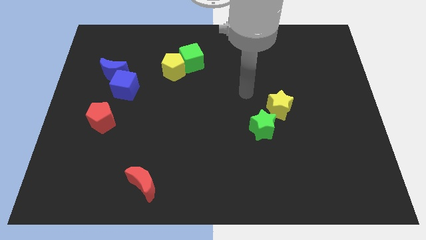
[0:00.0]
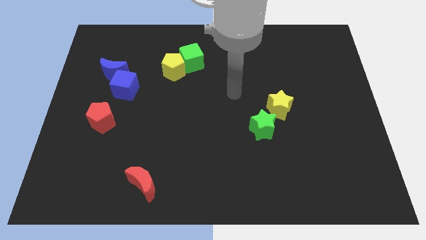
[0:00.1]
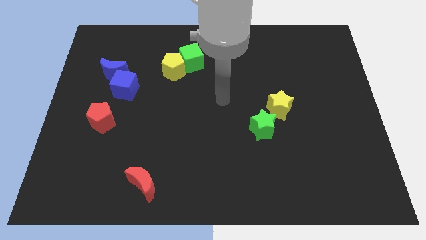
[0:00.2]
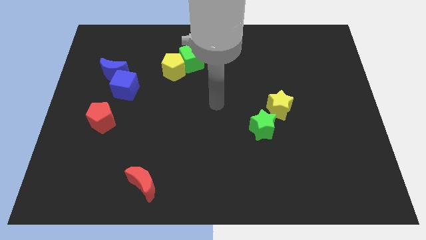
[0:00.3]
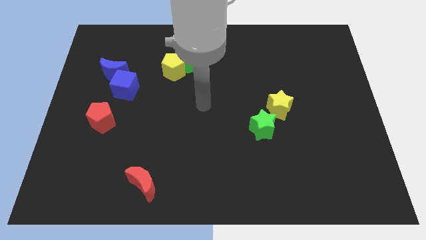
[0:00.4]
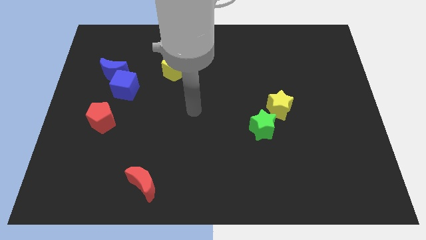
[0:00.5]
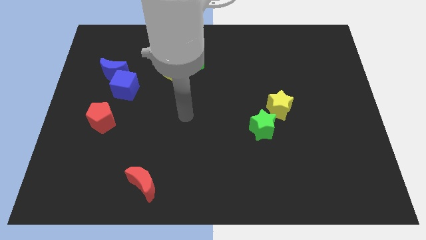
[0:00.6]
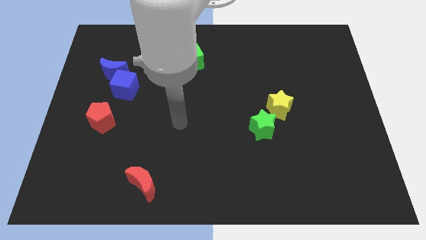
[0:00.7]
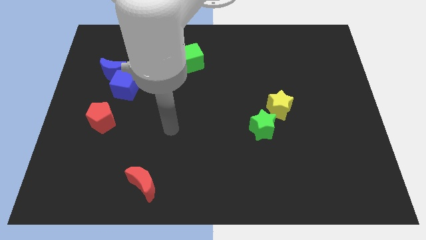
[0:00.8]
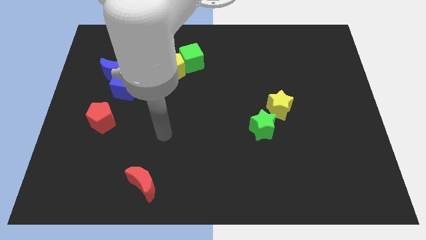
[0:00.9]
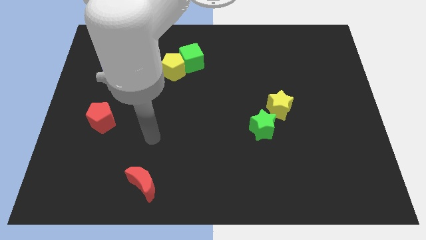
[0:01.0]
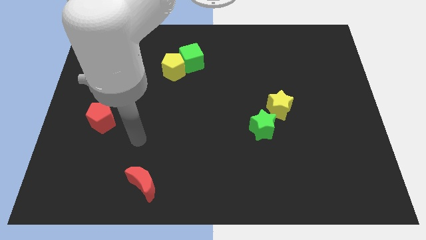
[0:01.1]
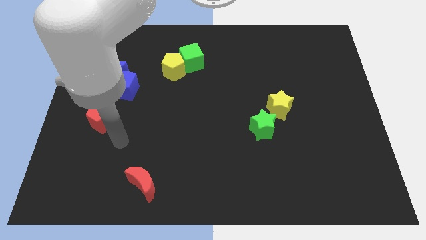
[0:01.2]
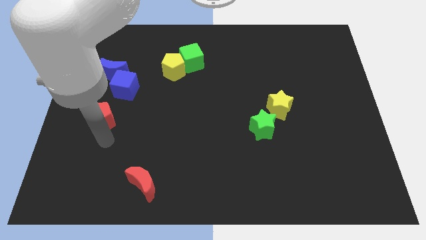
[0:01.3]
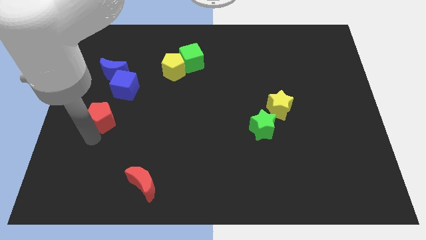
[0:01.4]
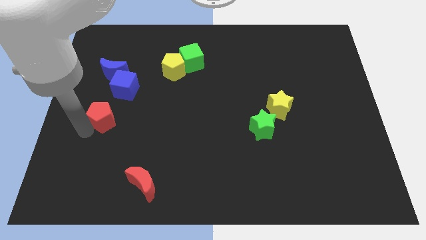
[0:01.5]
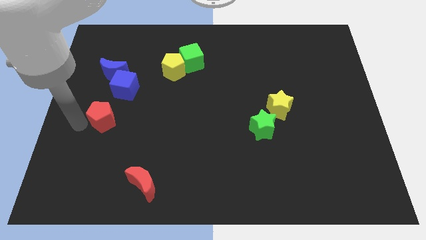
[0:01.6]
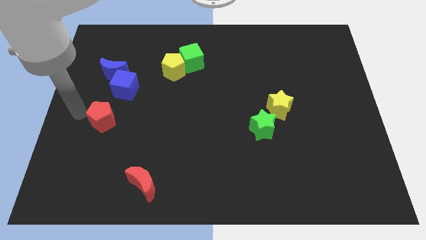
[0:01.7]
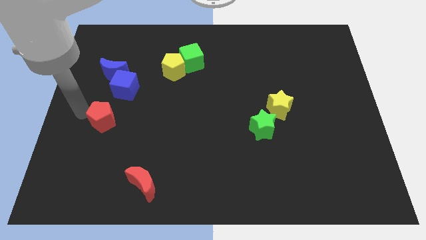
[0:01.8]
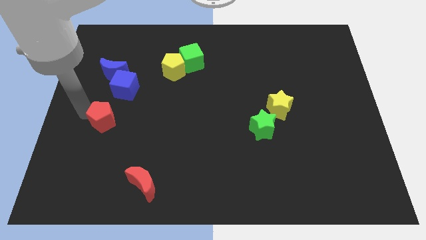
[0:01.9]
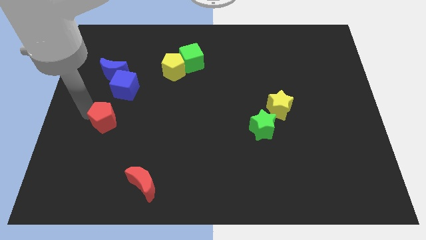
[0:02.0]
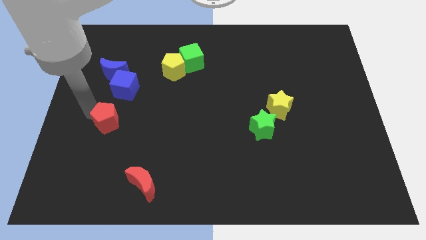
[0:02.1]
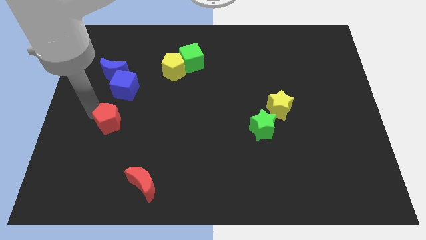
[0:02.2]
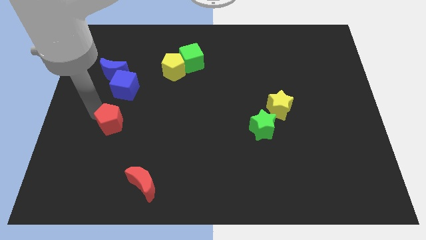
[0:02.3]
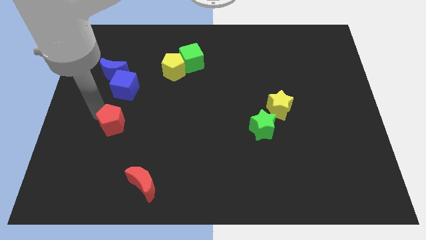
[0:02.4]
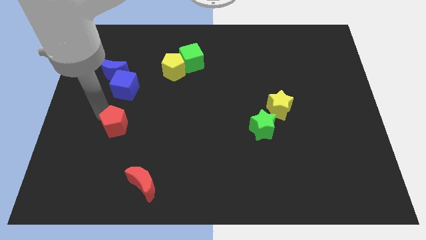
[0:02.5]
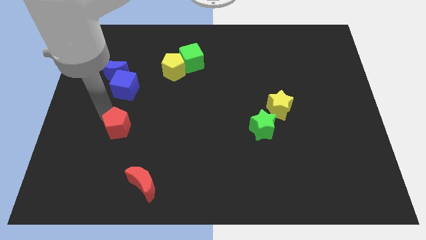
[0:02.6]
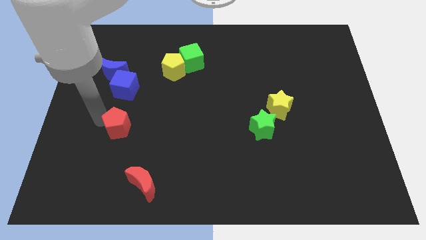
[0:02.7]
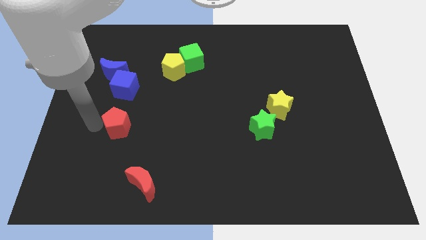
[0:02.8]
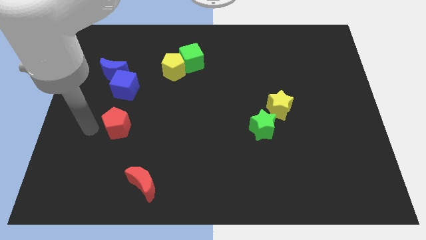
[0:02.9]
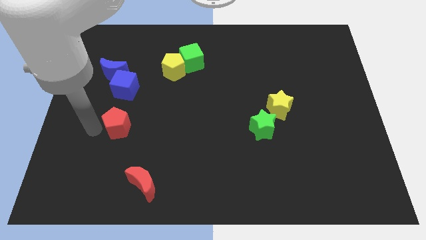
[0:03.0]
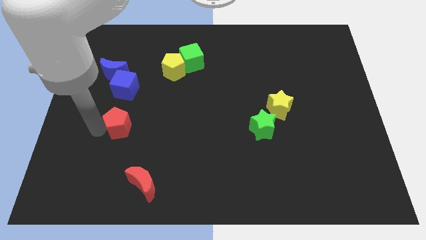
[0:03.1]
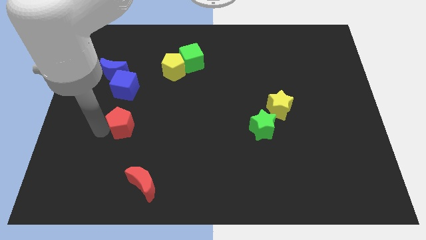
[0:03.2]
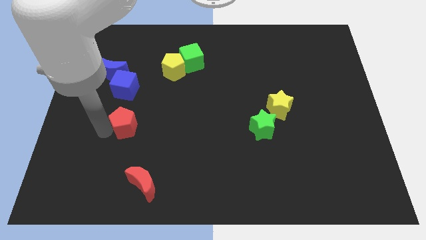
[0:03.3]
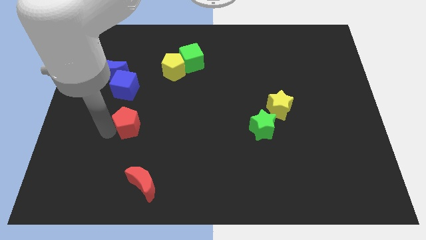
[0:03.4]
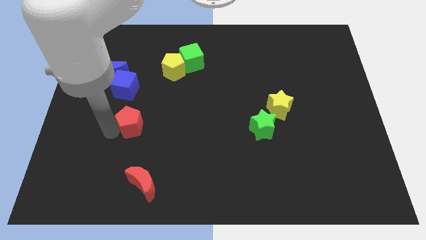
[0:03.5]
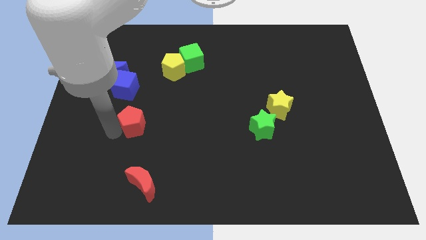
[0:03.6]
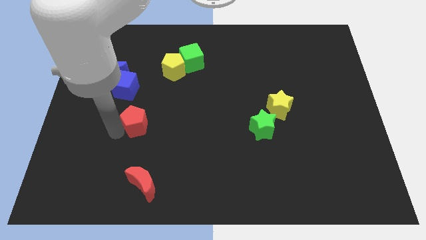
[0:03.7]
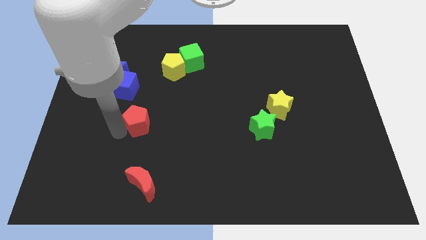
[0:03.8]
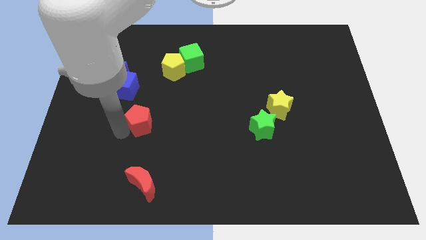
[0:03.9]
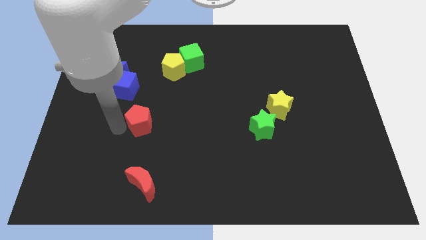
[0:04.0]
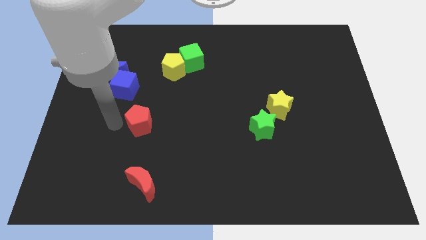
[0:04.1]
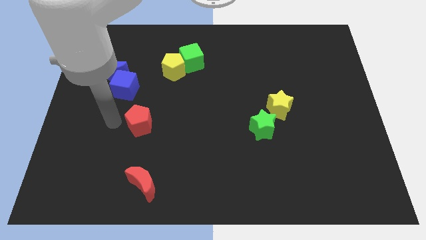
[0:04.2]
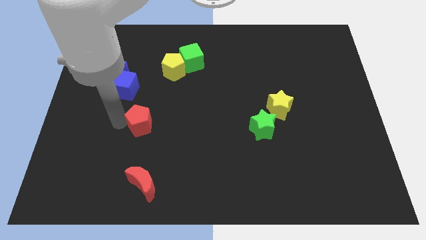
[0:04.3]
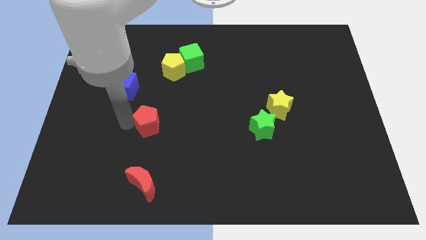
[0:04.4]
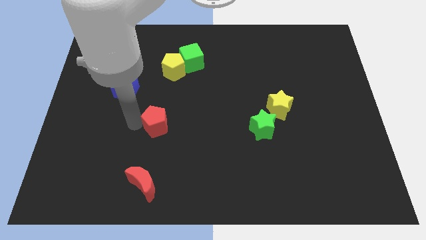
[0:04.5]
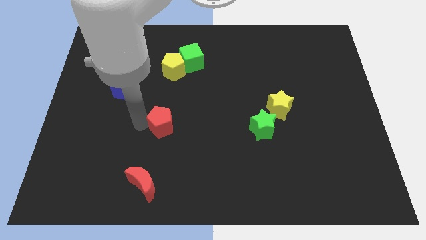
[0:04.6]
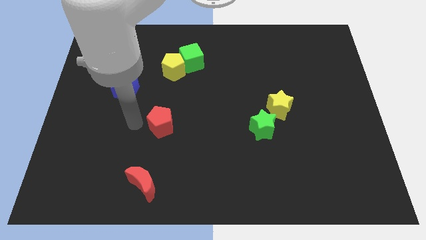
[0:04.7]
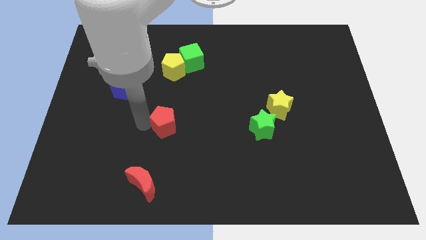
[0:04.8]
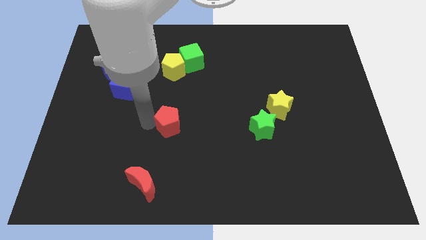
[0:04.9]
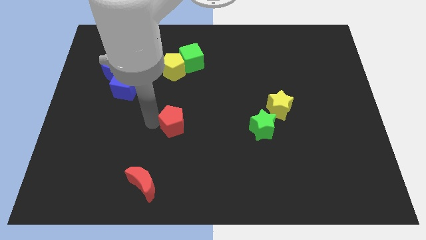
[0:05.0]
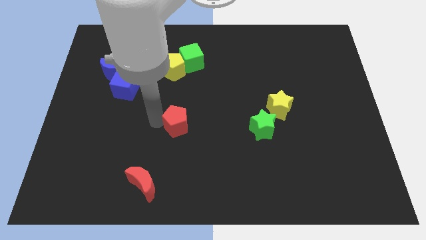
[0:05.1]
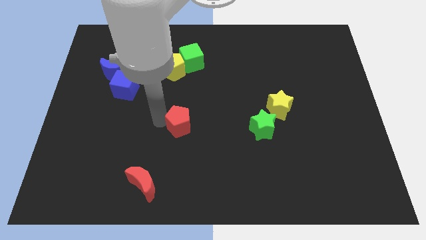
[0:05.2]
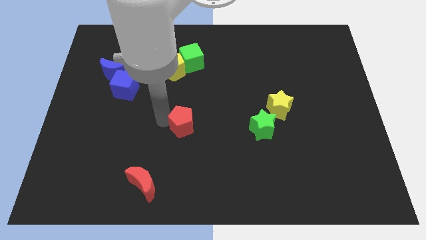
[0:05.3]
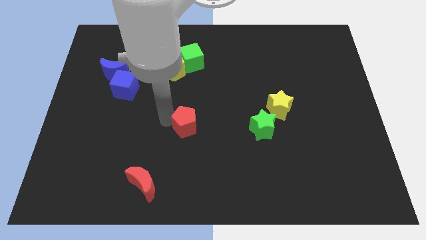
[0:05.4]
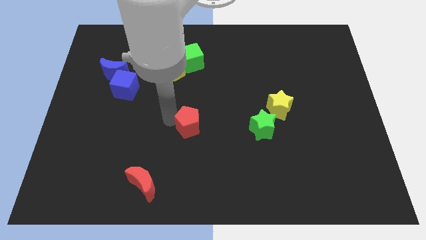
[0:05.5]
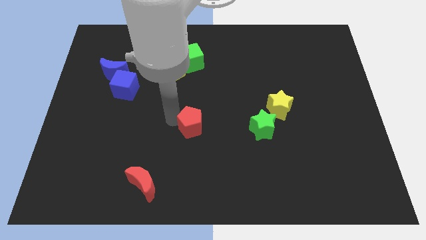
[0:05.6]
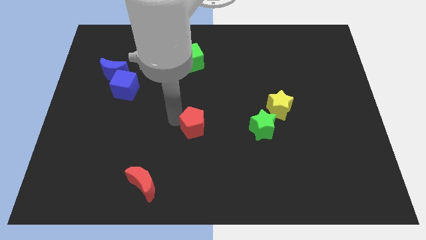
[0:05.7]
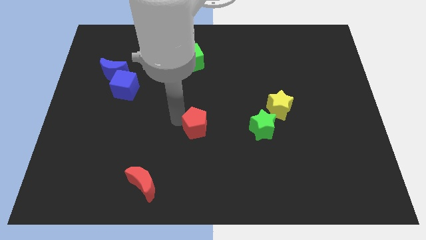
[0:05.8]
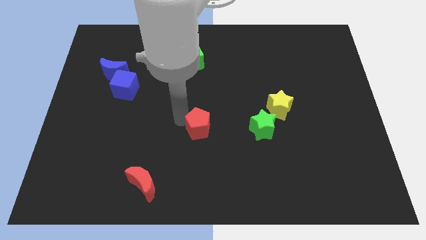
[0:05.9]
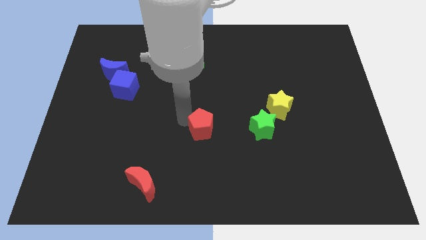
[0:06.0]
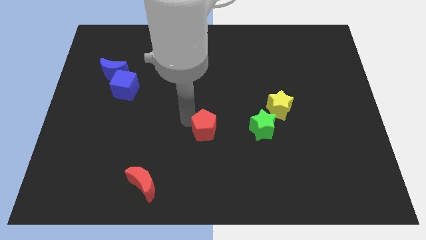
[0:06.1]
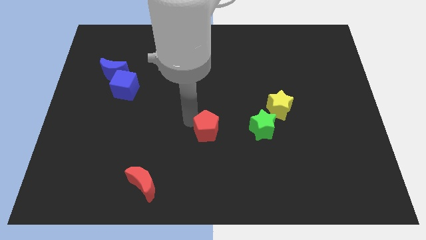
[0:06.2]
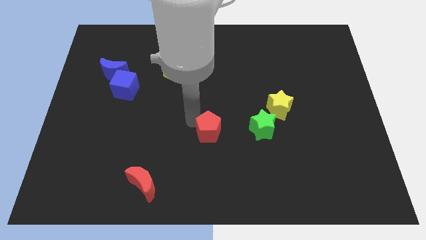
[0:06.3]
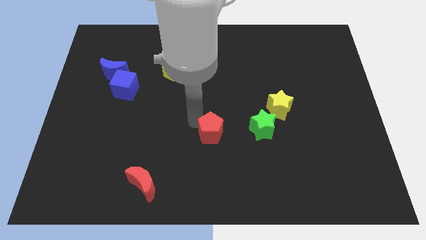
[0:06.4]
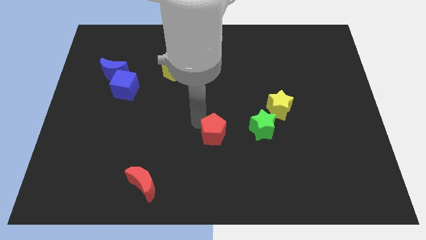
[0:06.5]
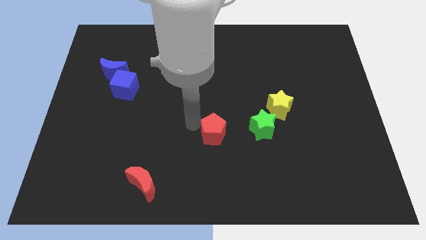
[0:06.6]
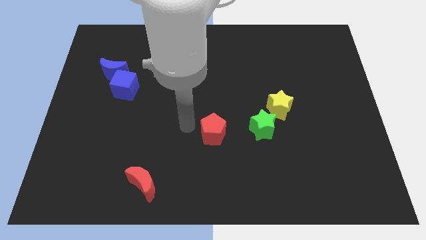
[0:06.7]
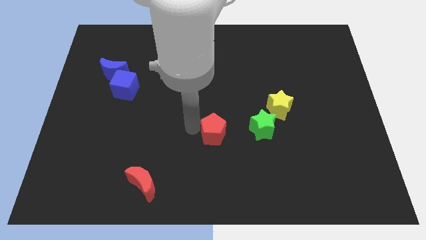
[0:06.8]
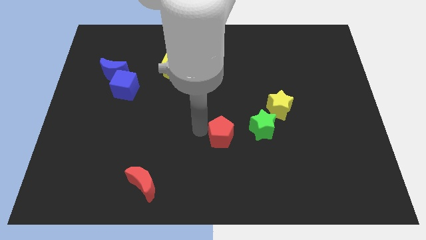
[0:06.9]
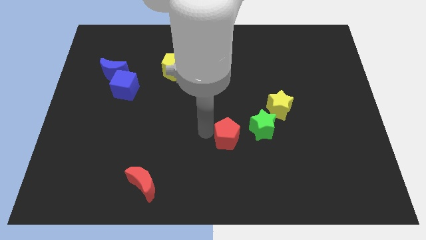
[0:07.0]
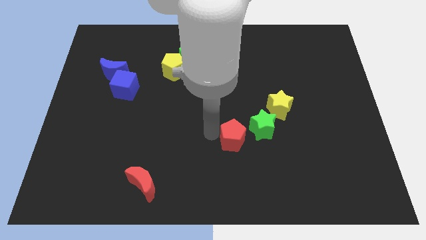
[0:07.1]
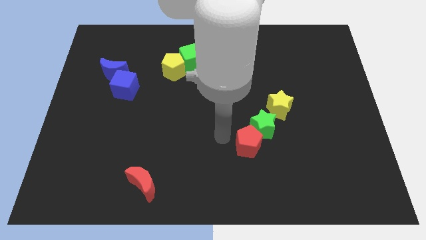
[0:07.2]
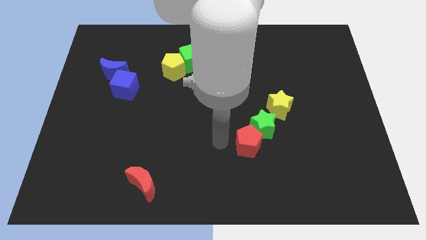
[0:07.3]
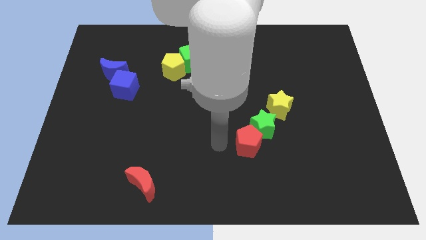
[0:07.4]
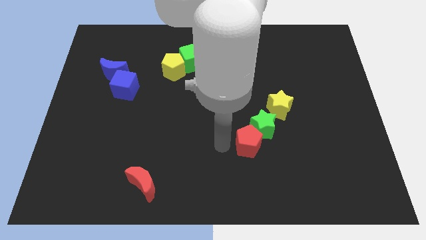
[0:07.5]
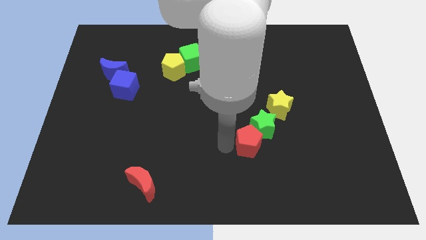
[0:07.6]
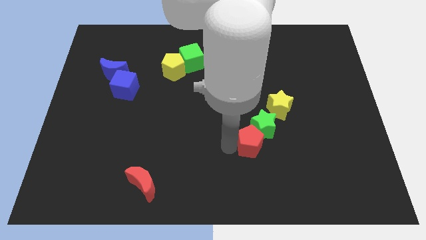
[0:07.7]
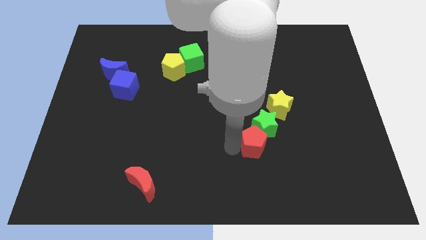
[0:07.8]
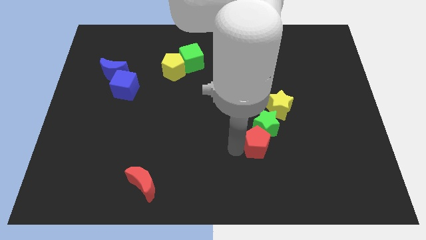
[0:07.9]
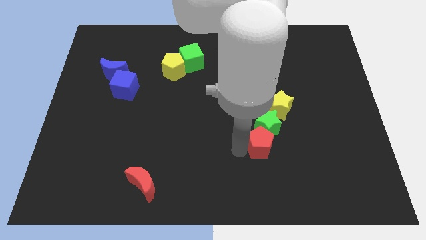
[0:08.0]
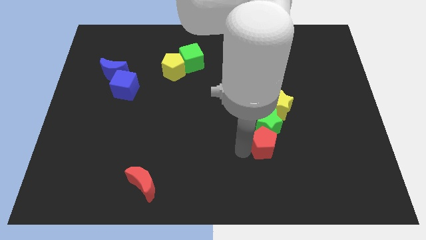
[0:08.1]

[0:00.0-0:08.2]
slide the red pentagon below the yellow star
